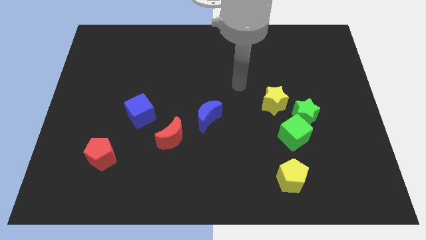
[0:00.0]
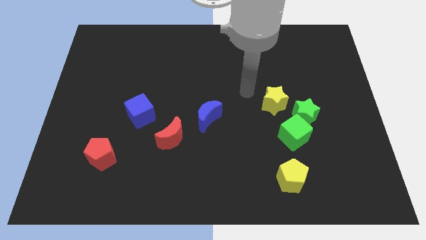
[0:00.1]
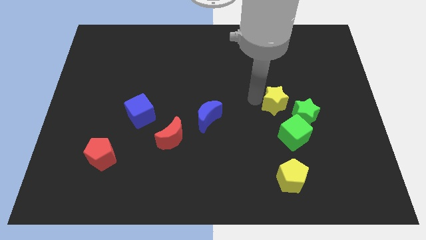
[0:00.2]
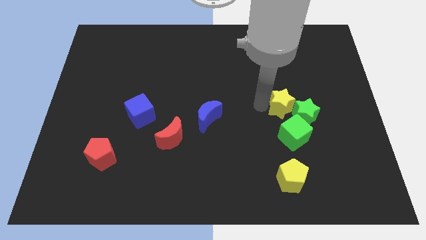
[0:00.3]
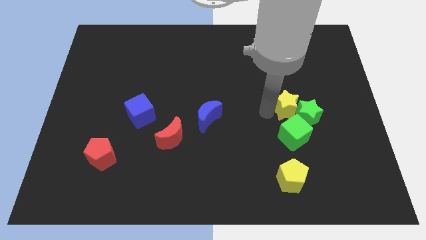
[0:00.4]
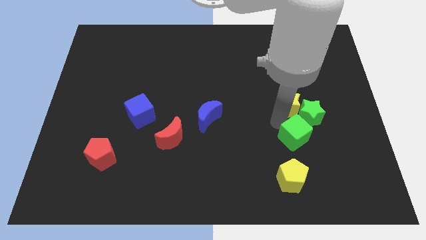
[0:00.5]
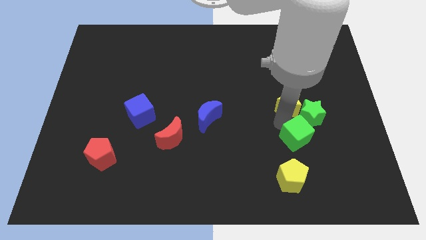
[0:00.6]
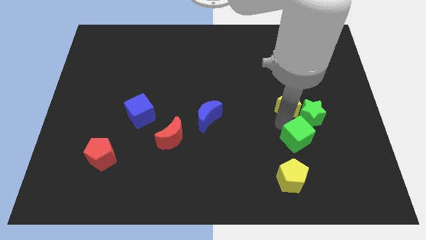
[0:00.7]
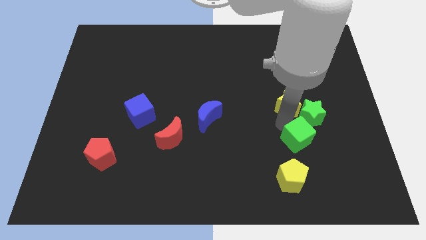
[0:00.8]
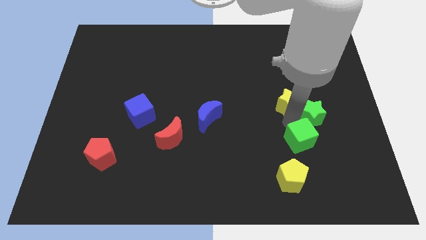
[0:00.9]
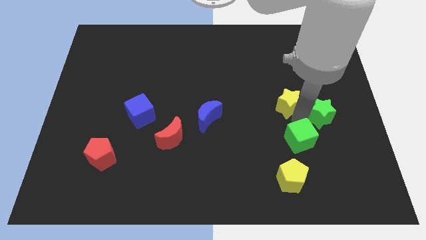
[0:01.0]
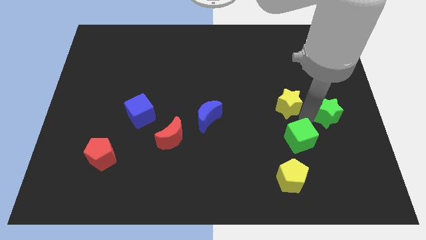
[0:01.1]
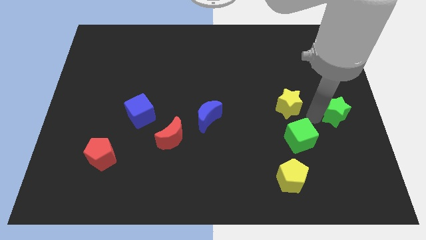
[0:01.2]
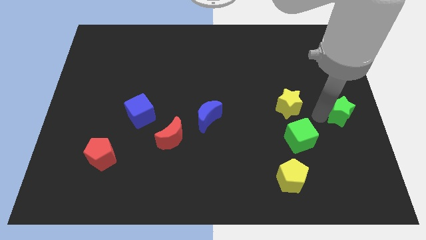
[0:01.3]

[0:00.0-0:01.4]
pull the green star apart from the green cube and yellow star

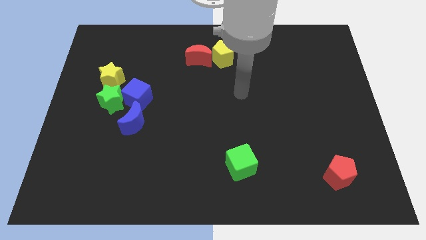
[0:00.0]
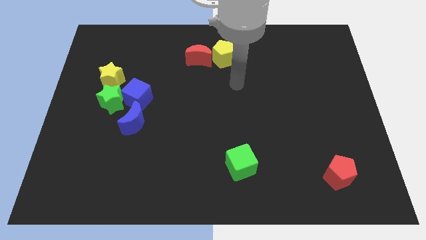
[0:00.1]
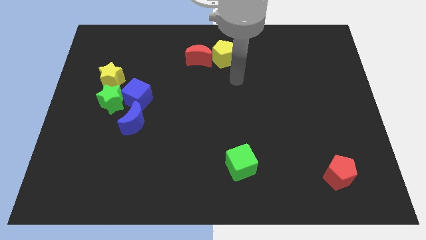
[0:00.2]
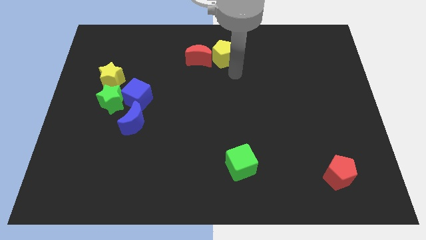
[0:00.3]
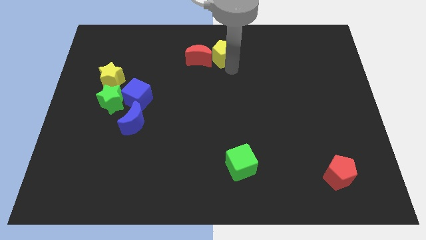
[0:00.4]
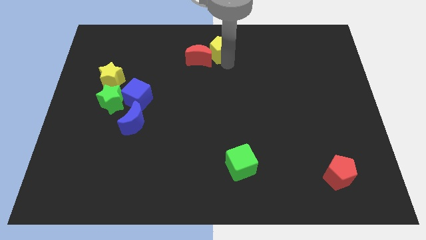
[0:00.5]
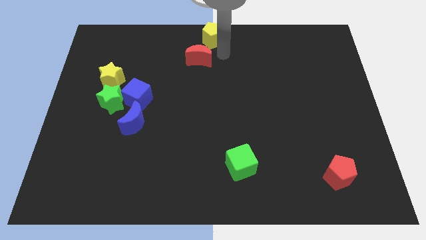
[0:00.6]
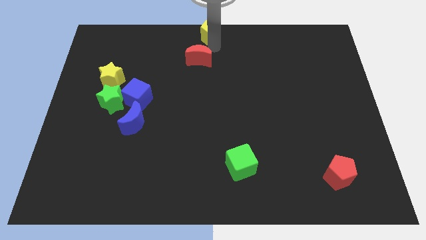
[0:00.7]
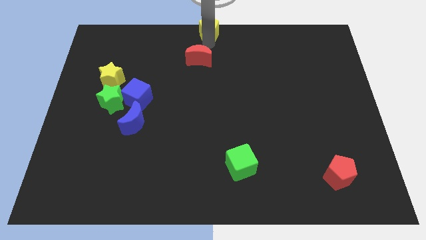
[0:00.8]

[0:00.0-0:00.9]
pull the red moon apart from the yellow pentagon

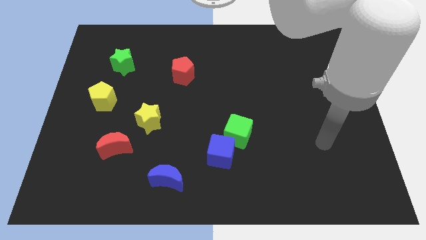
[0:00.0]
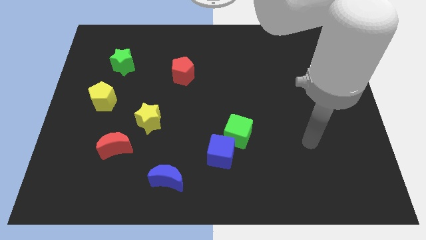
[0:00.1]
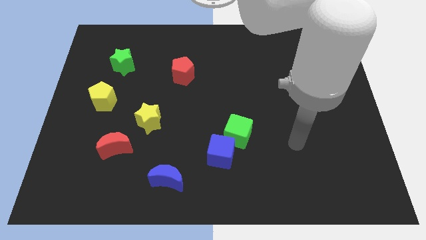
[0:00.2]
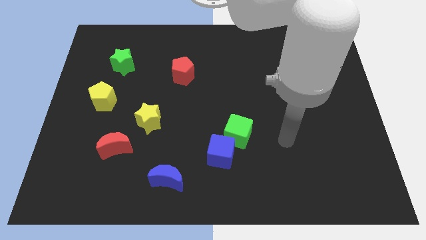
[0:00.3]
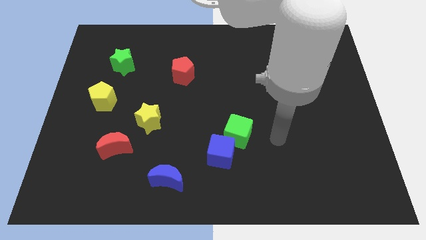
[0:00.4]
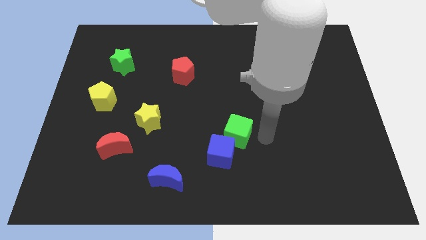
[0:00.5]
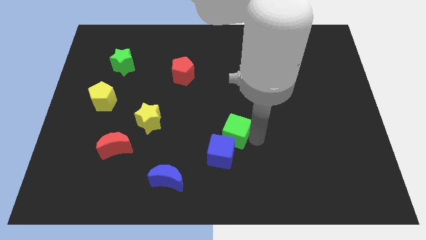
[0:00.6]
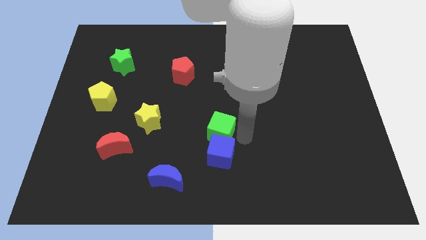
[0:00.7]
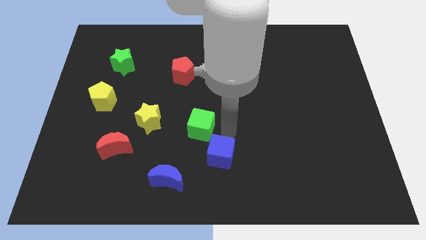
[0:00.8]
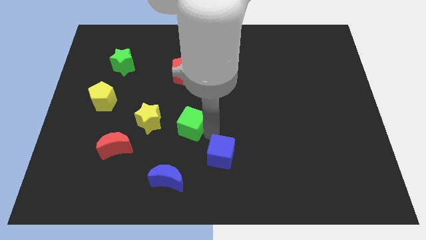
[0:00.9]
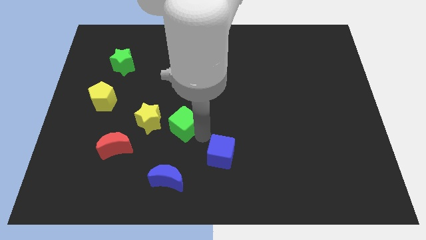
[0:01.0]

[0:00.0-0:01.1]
separate the blue cube from the green cube

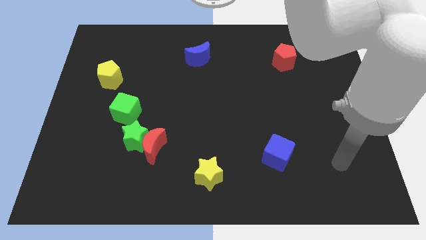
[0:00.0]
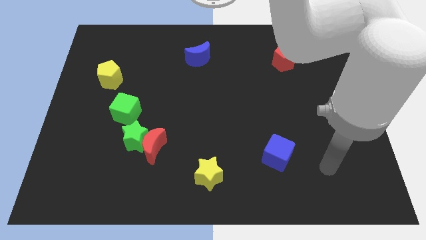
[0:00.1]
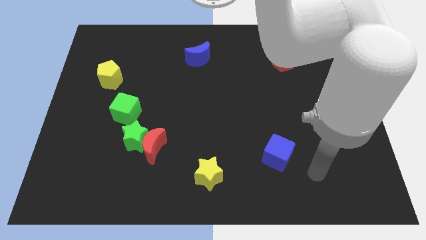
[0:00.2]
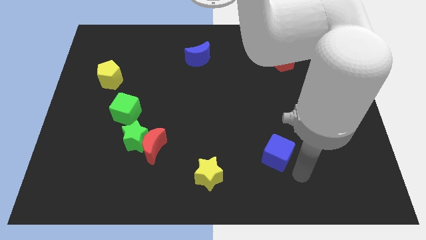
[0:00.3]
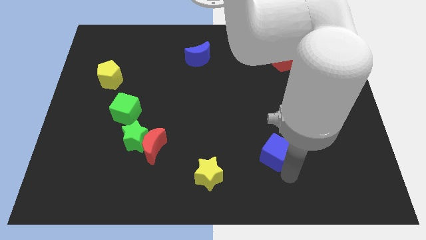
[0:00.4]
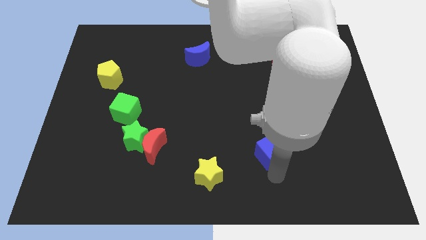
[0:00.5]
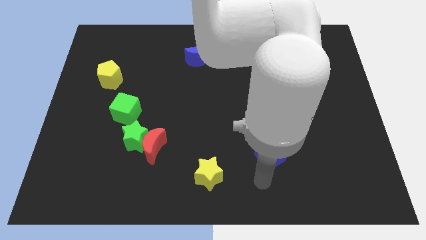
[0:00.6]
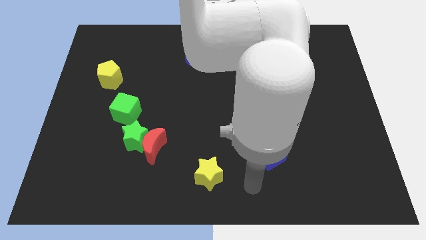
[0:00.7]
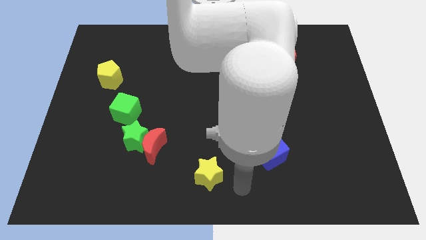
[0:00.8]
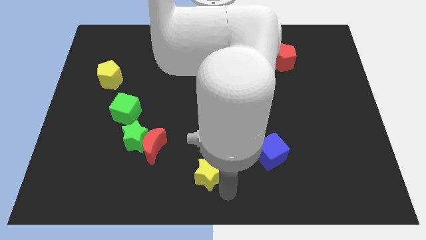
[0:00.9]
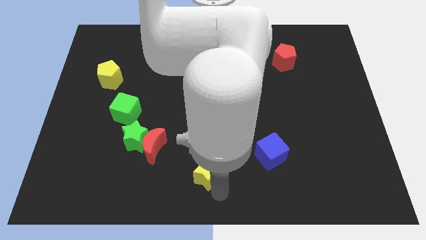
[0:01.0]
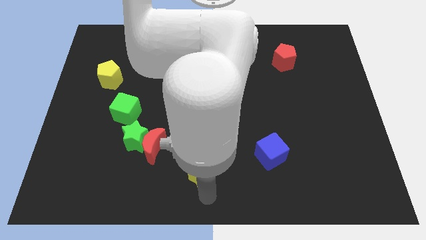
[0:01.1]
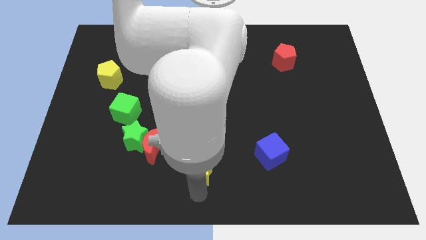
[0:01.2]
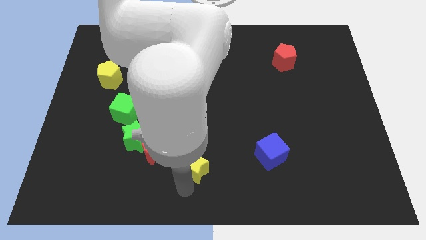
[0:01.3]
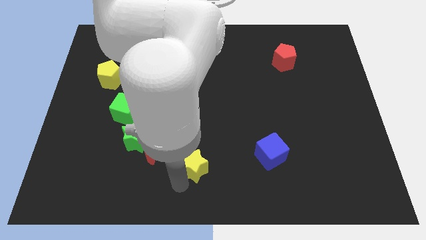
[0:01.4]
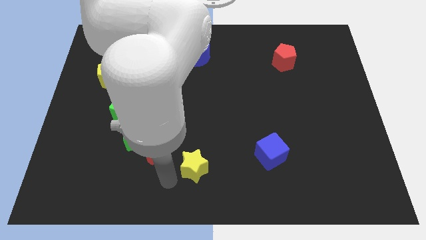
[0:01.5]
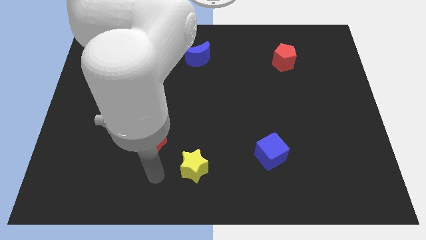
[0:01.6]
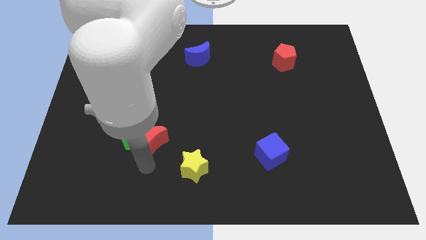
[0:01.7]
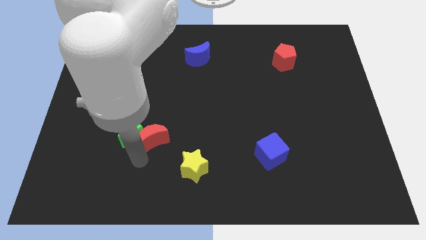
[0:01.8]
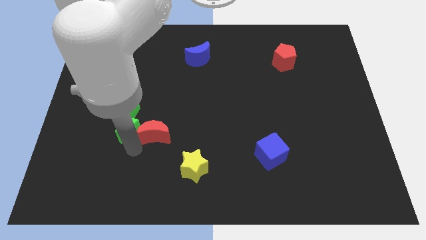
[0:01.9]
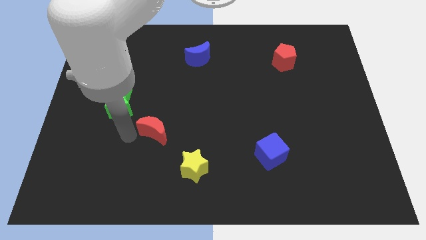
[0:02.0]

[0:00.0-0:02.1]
separate the red moon from the green star

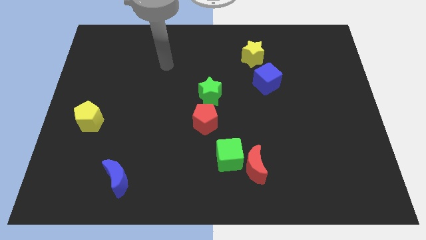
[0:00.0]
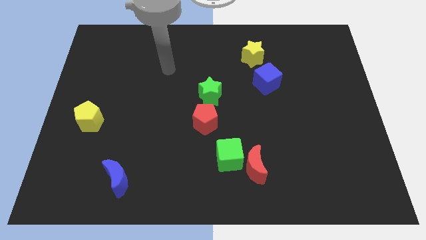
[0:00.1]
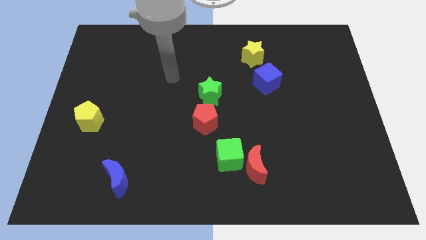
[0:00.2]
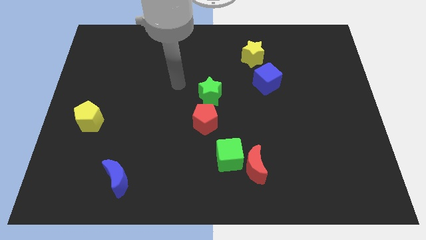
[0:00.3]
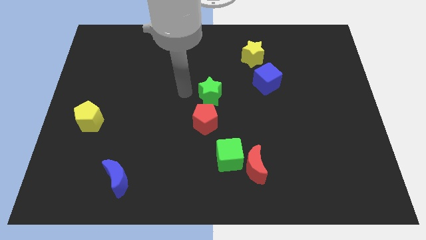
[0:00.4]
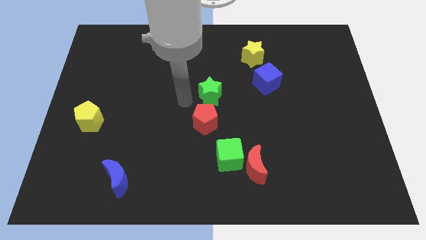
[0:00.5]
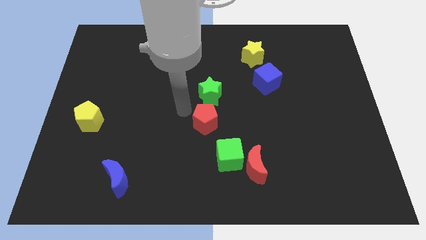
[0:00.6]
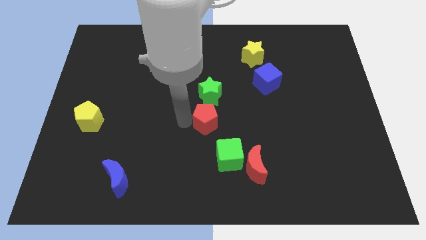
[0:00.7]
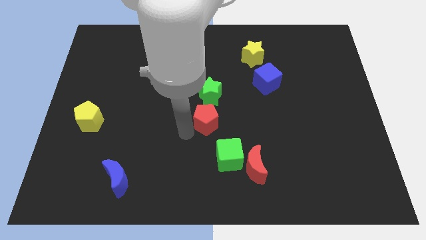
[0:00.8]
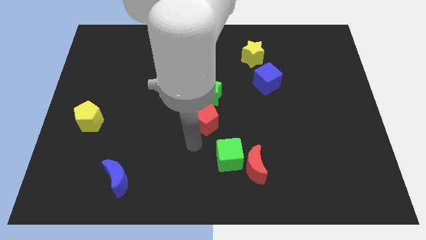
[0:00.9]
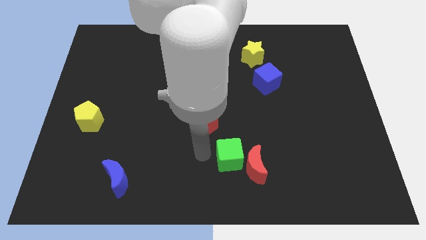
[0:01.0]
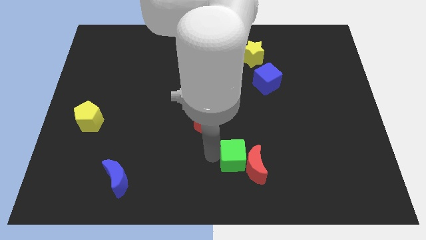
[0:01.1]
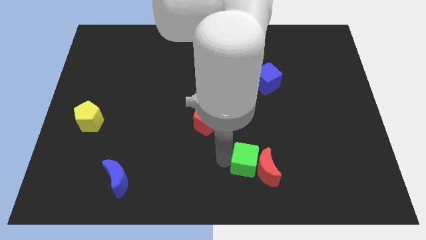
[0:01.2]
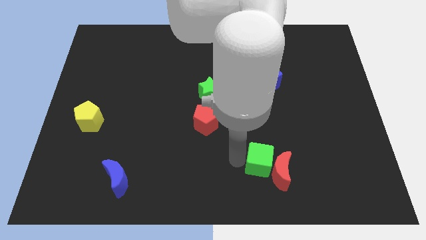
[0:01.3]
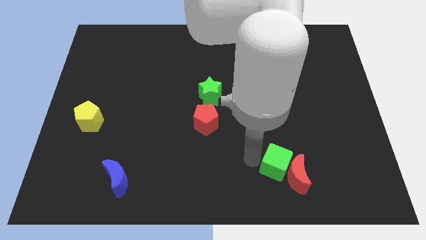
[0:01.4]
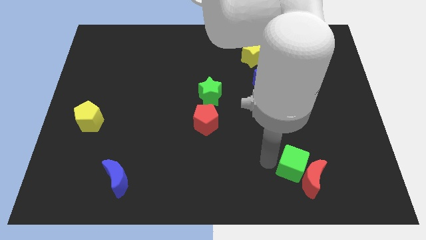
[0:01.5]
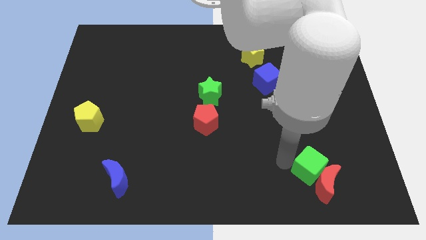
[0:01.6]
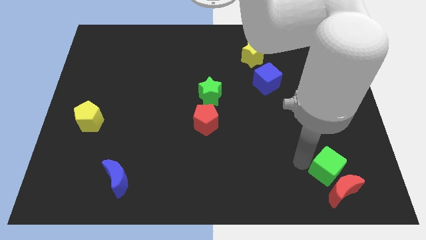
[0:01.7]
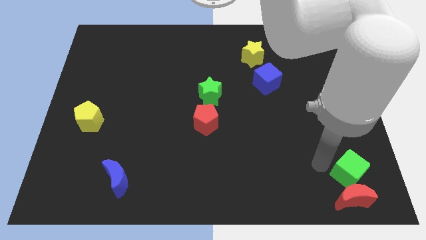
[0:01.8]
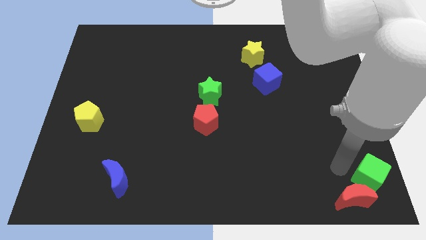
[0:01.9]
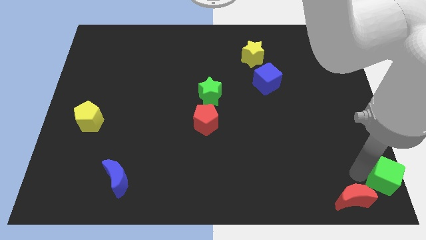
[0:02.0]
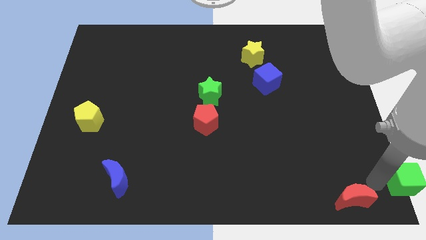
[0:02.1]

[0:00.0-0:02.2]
separate the red moon from the green cube

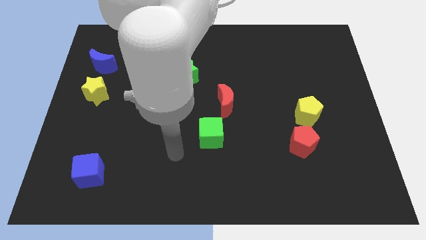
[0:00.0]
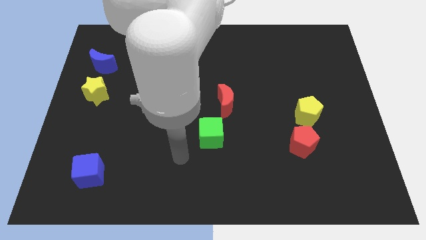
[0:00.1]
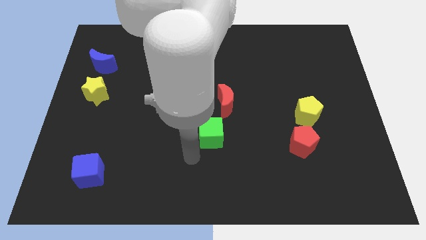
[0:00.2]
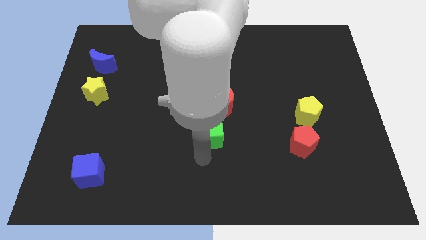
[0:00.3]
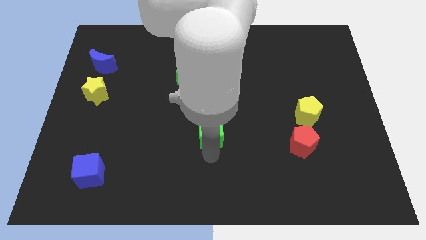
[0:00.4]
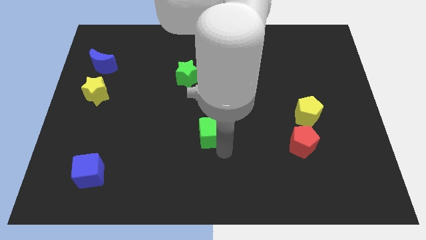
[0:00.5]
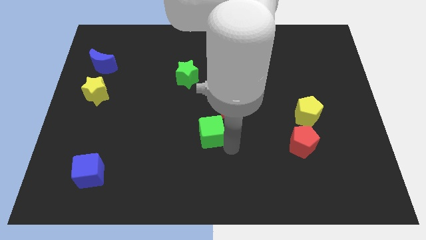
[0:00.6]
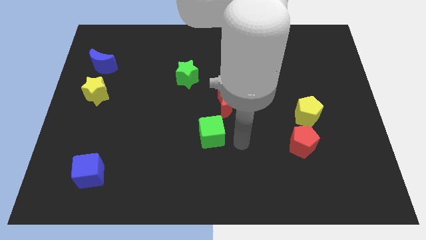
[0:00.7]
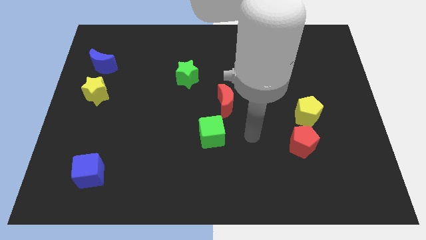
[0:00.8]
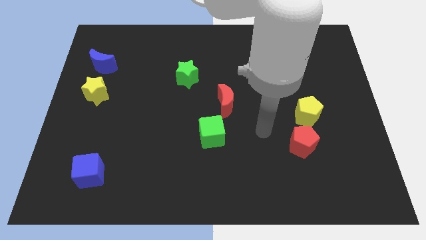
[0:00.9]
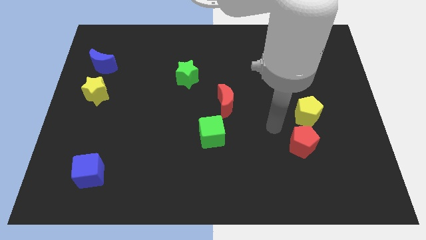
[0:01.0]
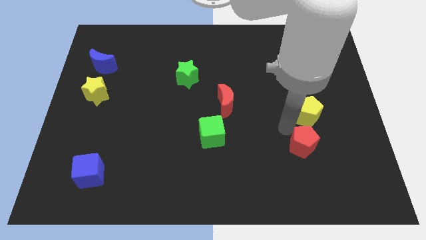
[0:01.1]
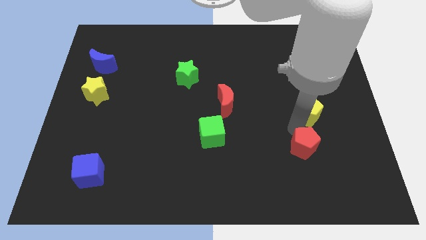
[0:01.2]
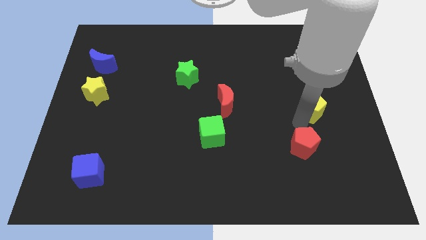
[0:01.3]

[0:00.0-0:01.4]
move the red pentagon away from the yellow pentagon

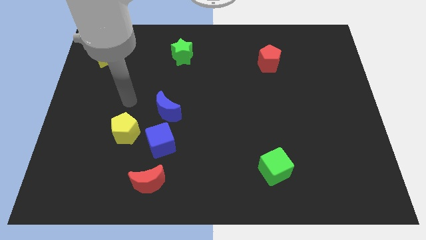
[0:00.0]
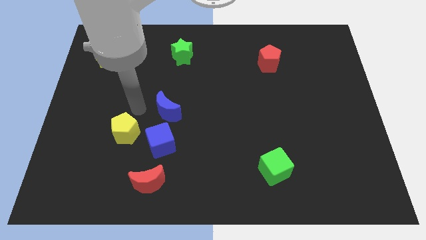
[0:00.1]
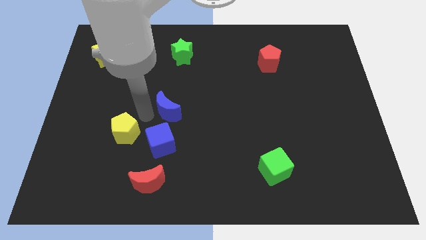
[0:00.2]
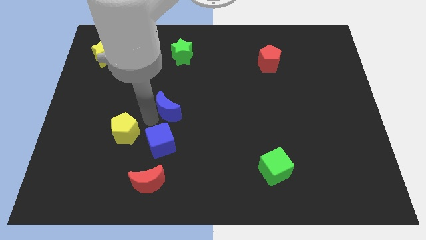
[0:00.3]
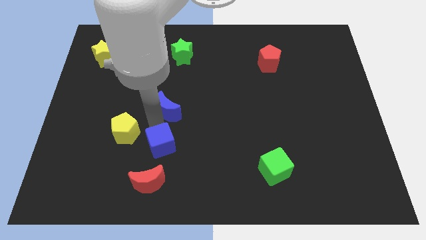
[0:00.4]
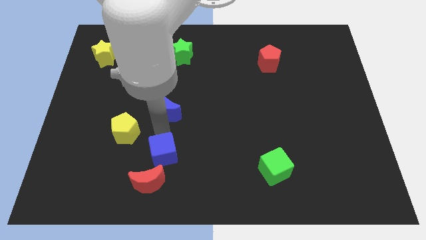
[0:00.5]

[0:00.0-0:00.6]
move the blue moon away from the blue cube
